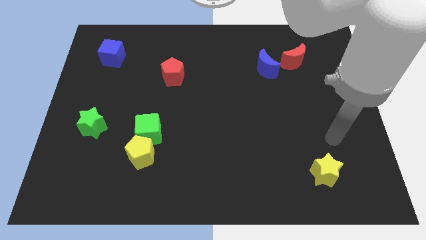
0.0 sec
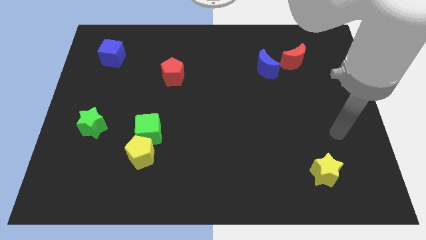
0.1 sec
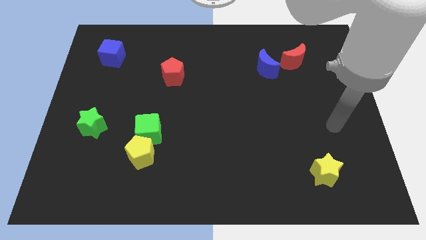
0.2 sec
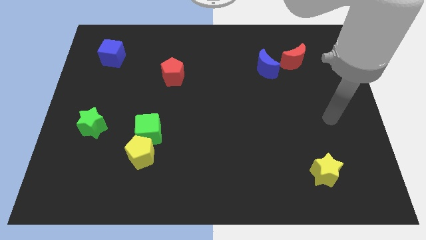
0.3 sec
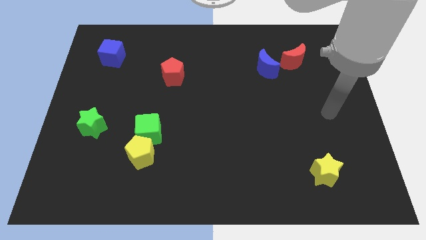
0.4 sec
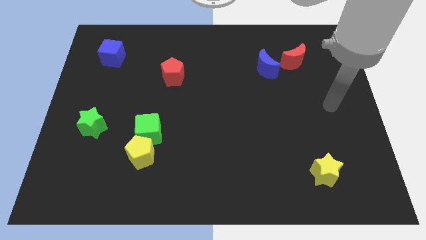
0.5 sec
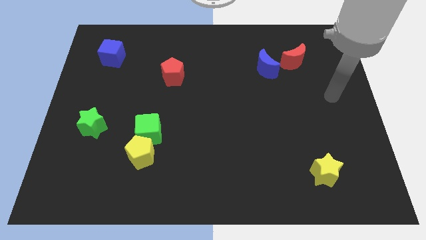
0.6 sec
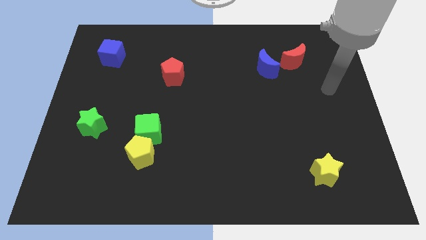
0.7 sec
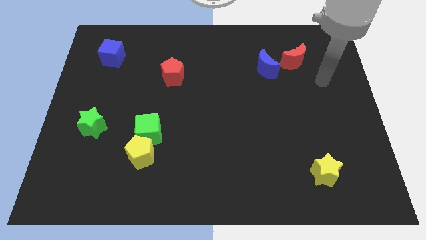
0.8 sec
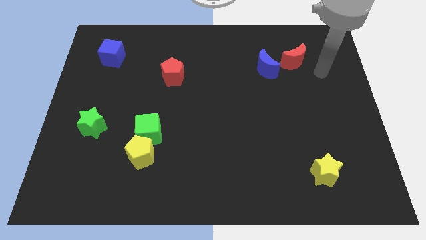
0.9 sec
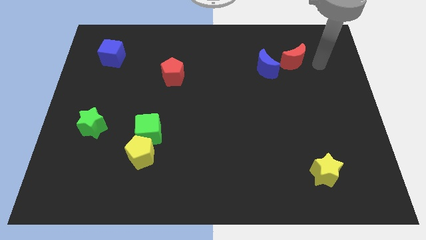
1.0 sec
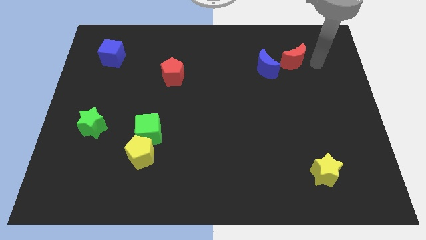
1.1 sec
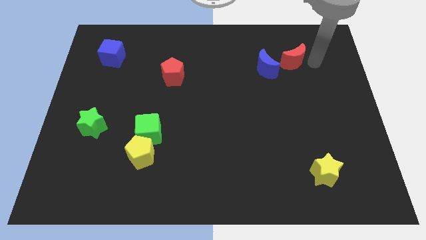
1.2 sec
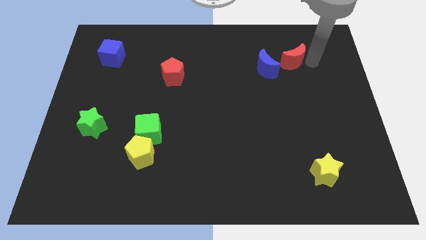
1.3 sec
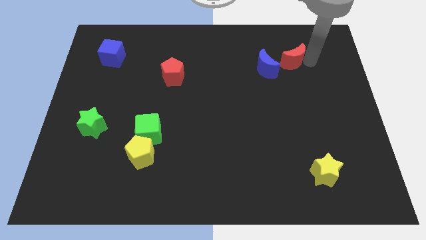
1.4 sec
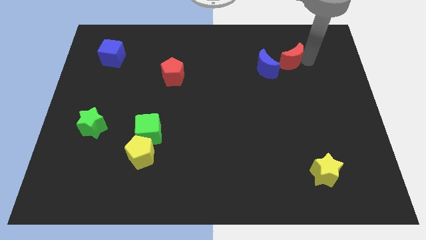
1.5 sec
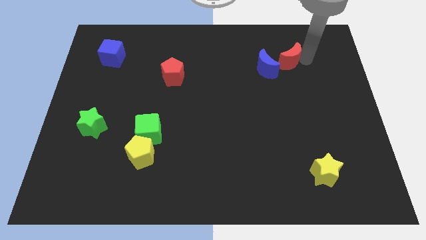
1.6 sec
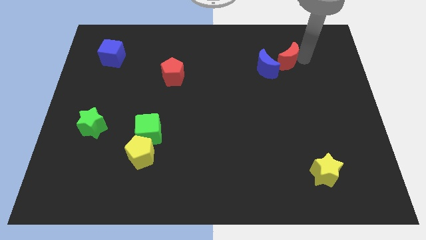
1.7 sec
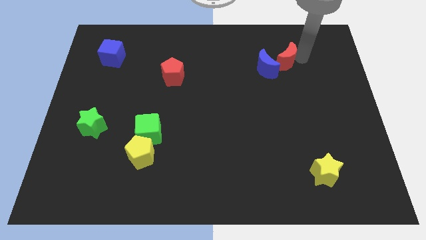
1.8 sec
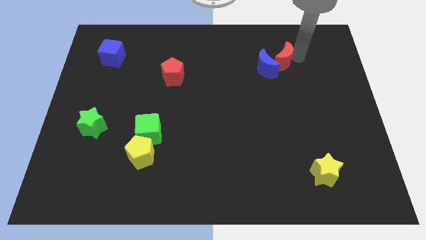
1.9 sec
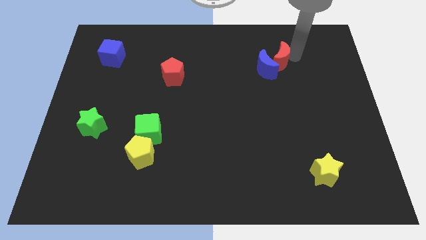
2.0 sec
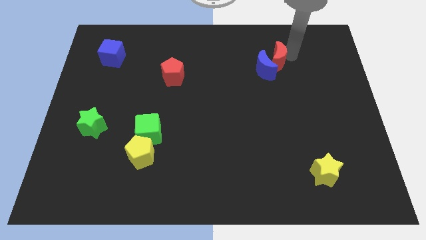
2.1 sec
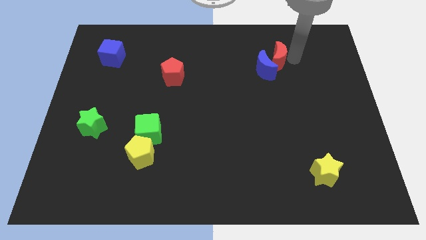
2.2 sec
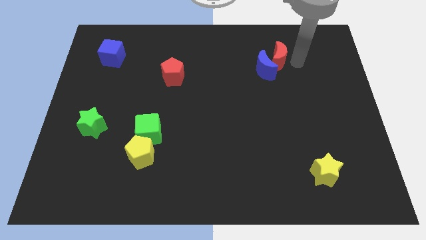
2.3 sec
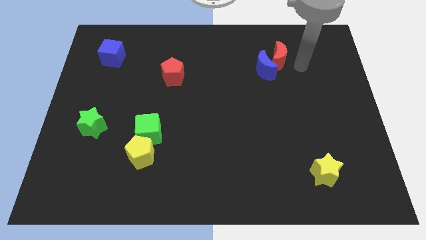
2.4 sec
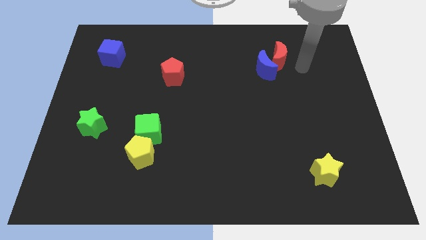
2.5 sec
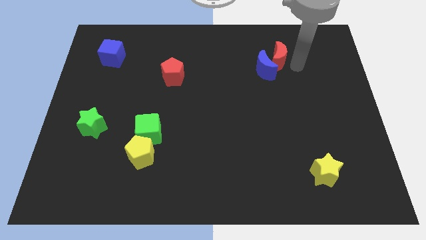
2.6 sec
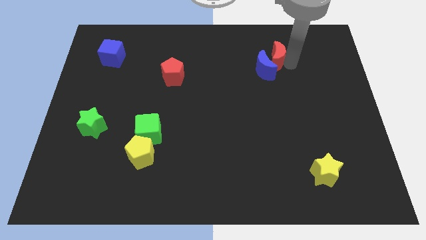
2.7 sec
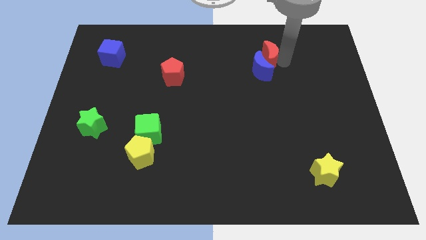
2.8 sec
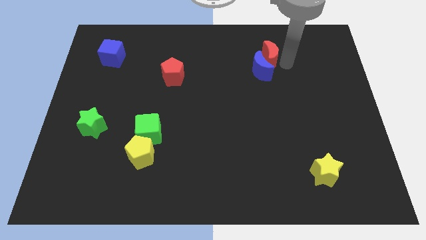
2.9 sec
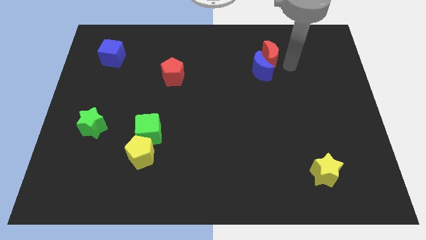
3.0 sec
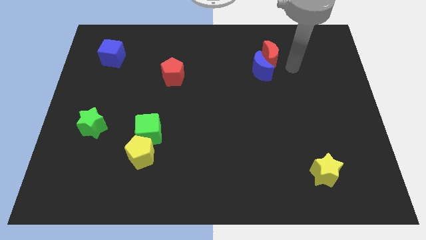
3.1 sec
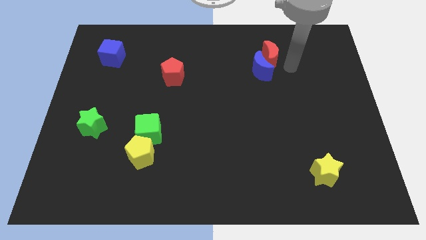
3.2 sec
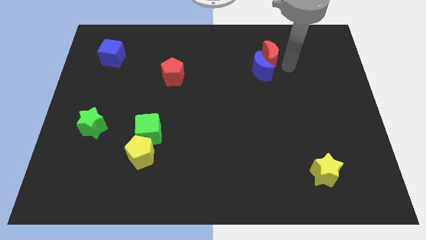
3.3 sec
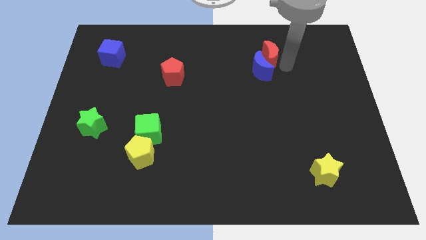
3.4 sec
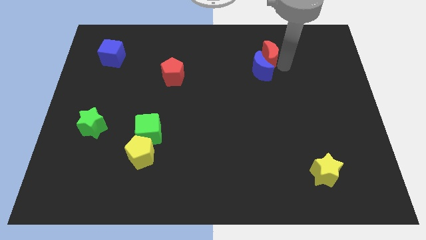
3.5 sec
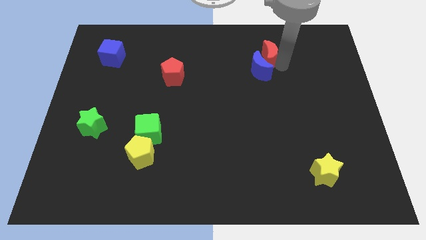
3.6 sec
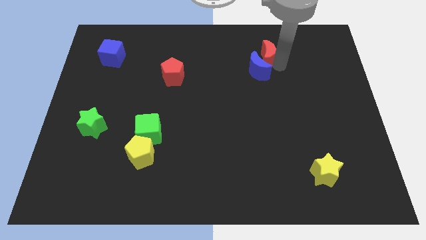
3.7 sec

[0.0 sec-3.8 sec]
push the red moon a little to the left

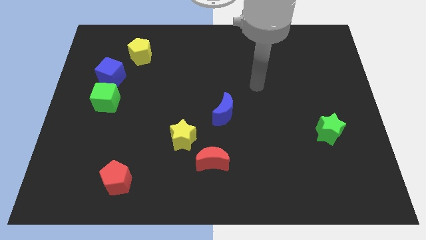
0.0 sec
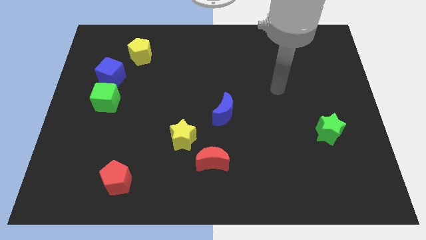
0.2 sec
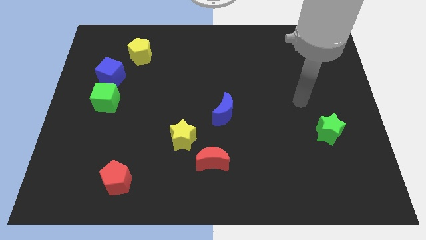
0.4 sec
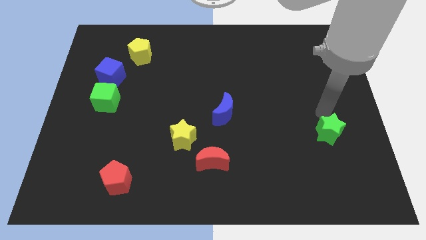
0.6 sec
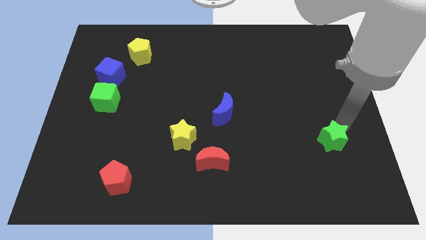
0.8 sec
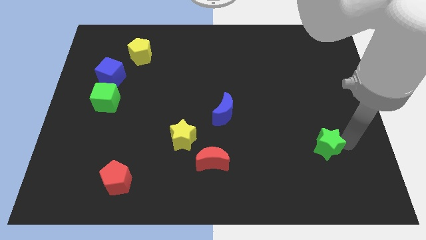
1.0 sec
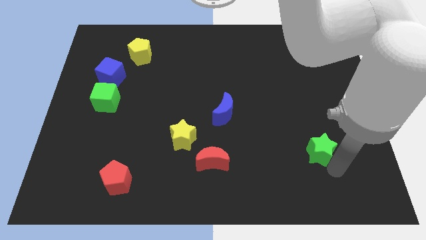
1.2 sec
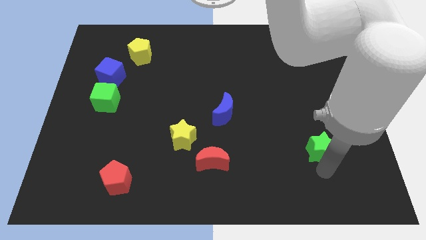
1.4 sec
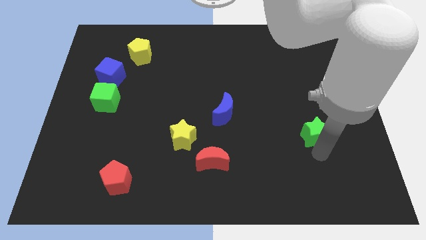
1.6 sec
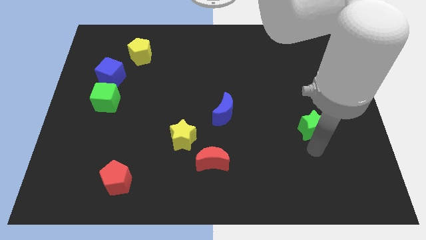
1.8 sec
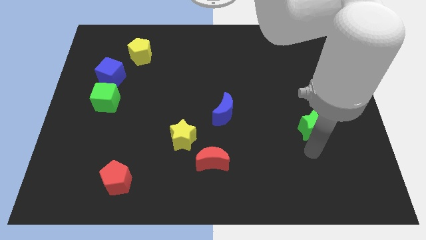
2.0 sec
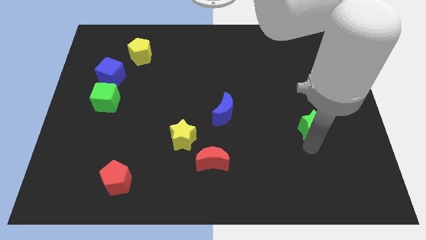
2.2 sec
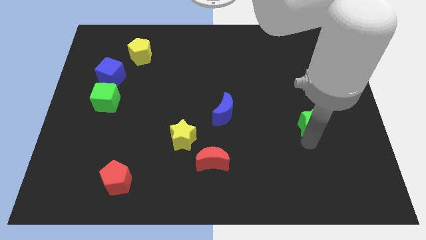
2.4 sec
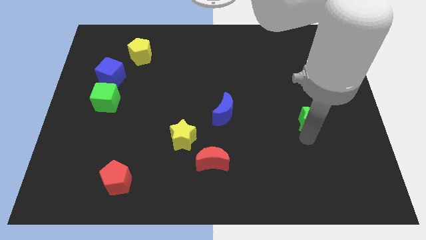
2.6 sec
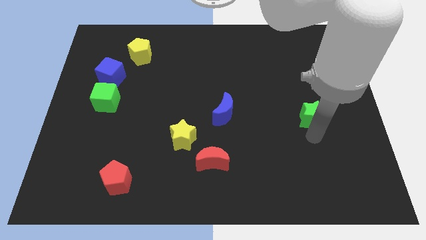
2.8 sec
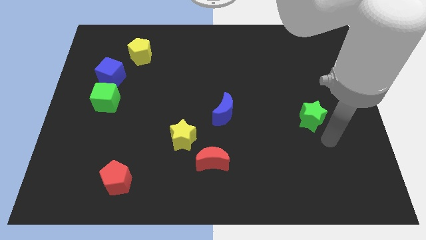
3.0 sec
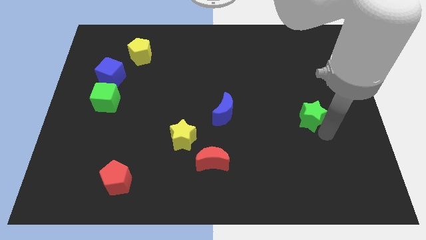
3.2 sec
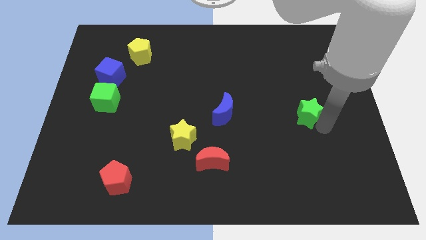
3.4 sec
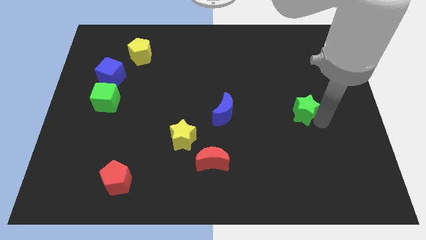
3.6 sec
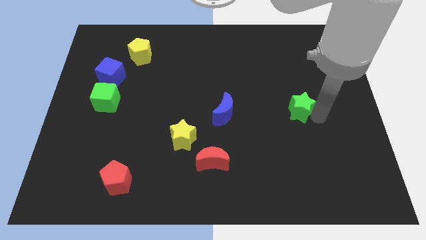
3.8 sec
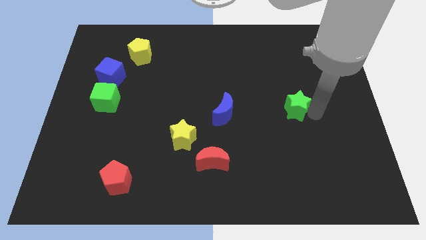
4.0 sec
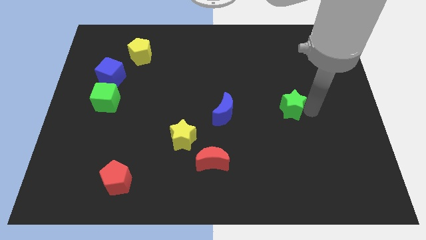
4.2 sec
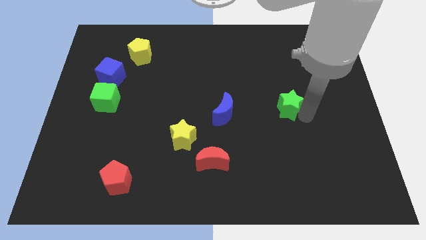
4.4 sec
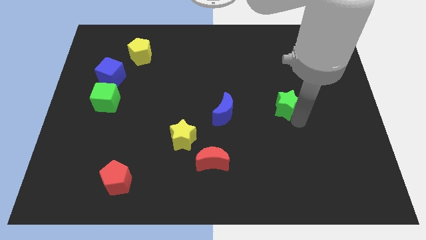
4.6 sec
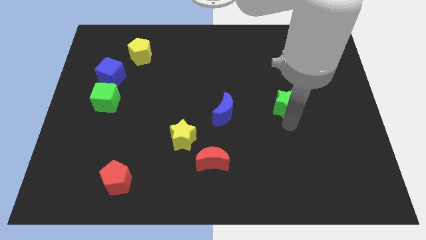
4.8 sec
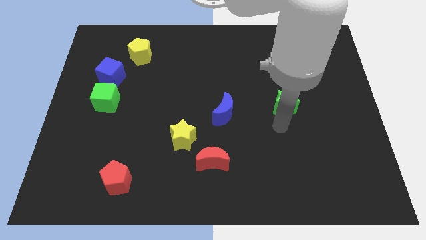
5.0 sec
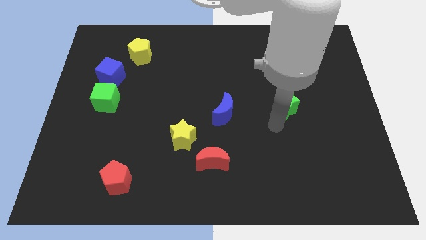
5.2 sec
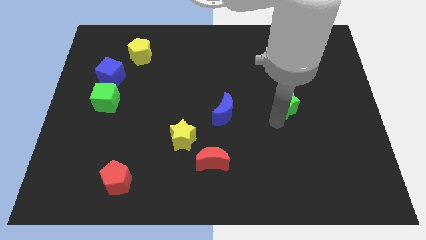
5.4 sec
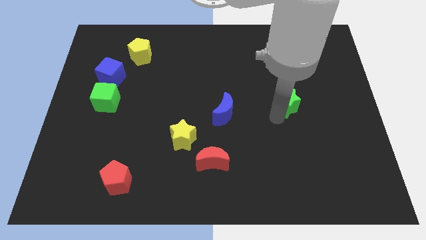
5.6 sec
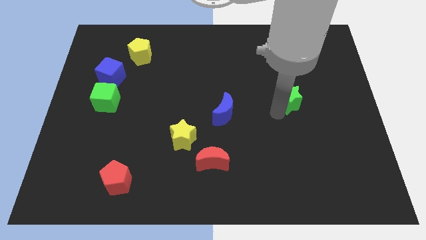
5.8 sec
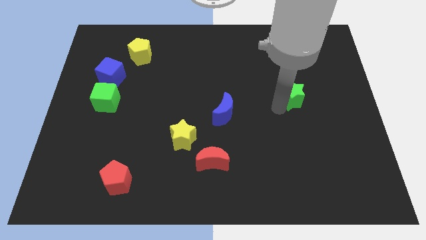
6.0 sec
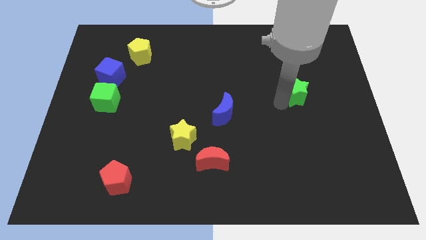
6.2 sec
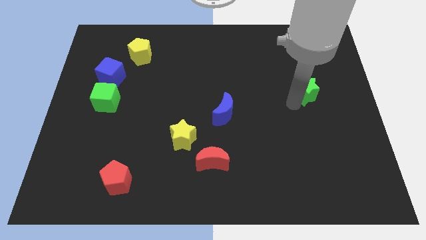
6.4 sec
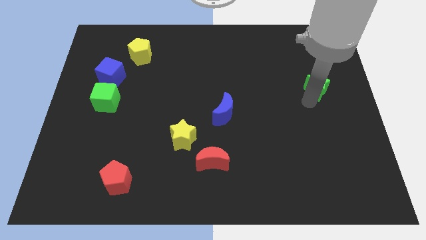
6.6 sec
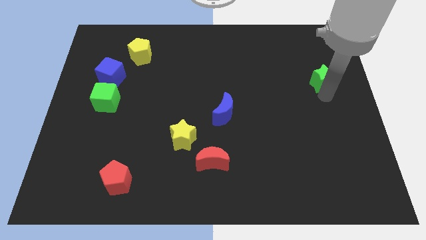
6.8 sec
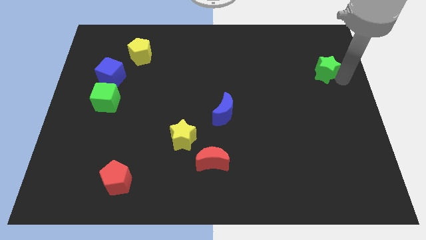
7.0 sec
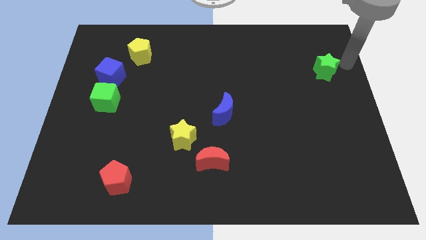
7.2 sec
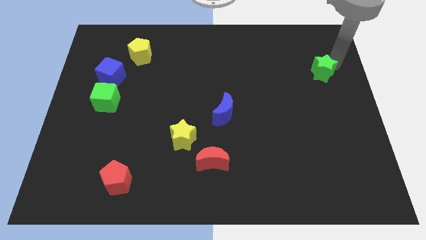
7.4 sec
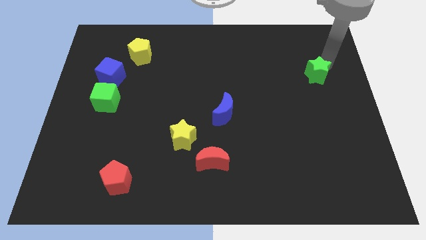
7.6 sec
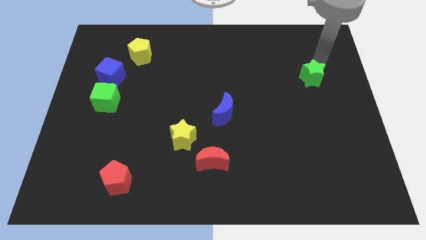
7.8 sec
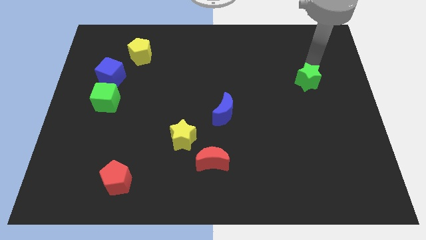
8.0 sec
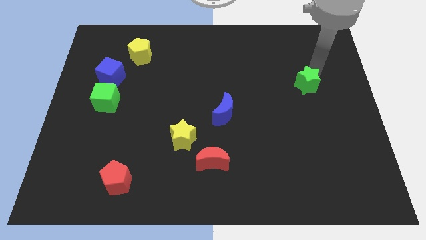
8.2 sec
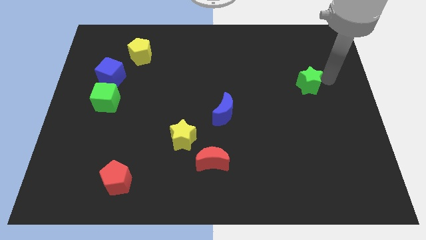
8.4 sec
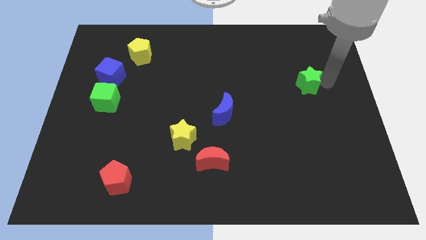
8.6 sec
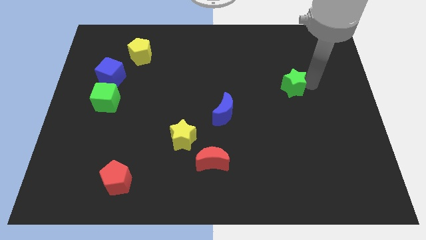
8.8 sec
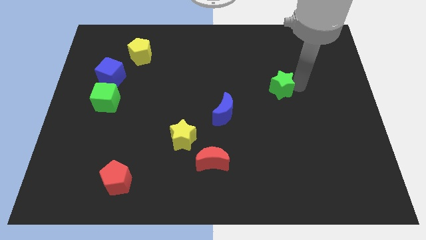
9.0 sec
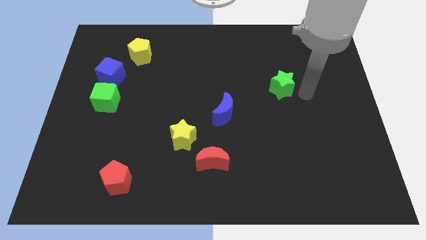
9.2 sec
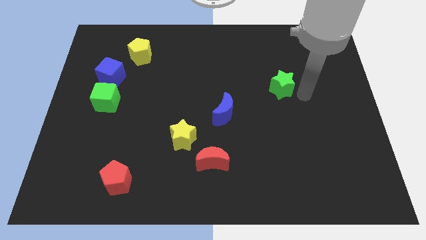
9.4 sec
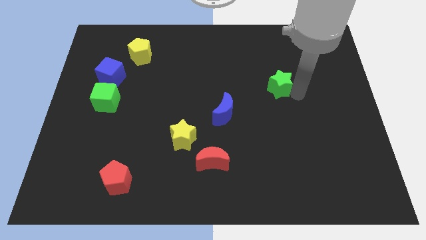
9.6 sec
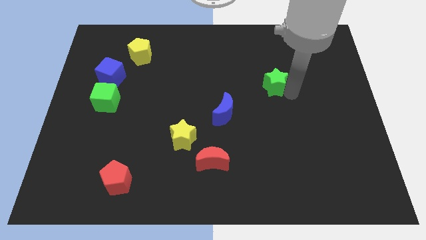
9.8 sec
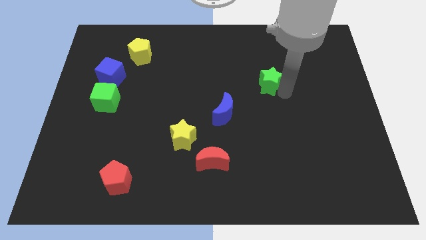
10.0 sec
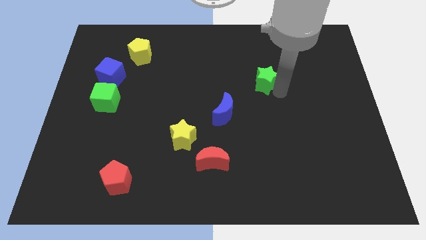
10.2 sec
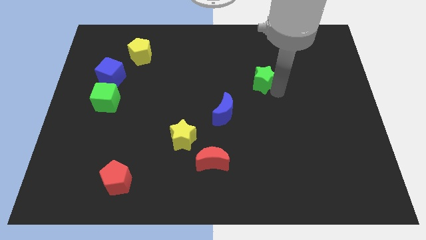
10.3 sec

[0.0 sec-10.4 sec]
push the green star diagonally upwards and left
